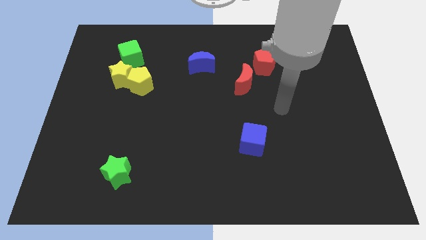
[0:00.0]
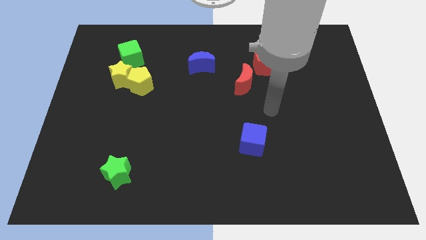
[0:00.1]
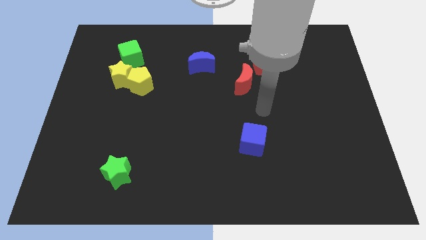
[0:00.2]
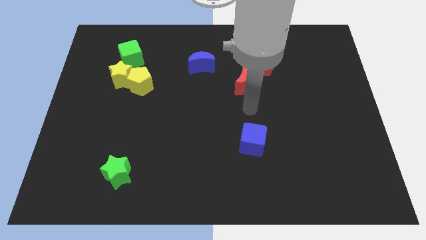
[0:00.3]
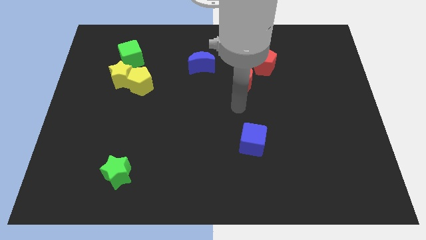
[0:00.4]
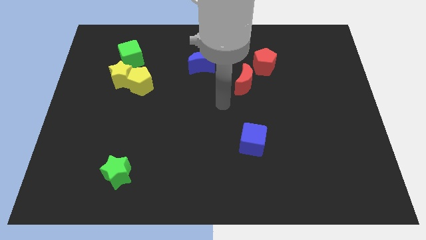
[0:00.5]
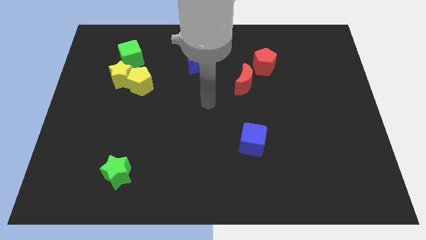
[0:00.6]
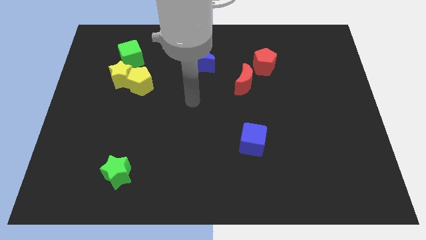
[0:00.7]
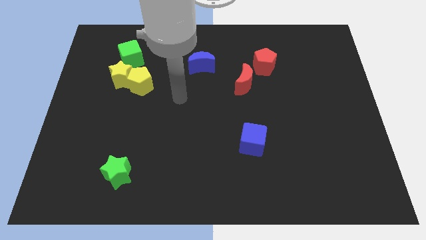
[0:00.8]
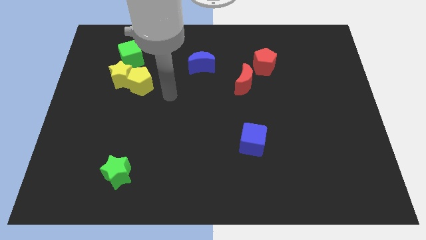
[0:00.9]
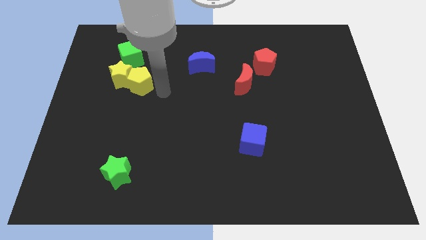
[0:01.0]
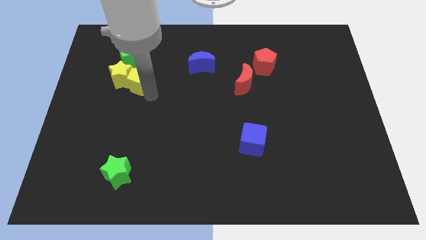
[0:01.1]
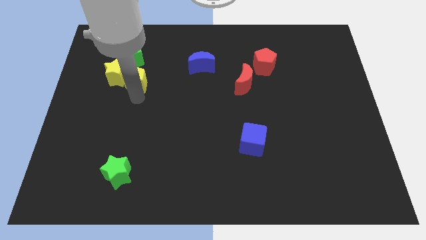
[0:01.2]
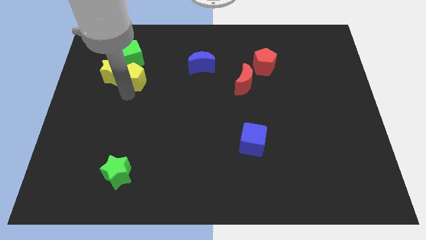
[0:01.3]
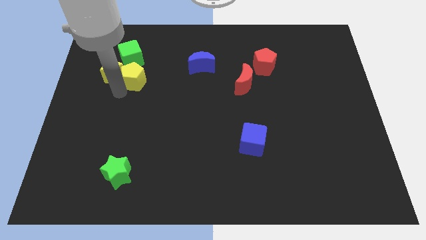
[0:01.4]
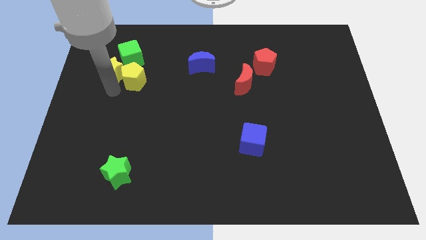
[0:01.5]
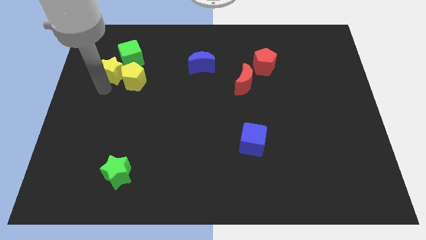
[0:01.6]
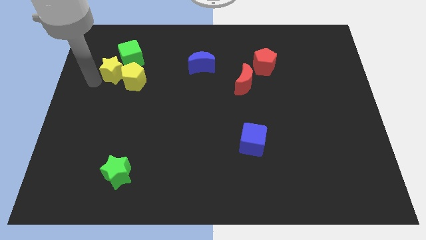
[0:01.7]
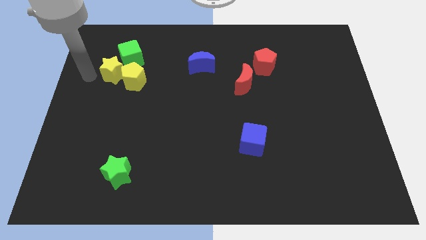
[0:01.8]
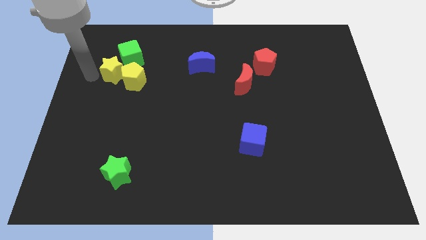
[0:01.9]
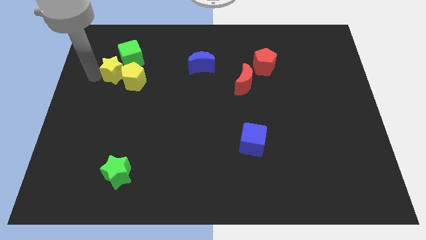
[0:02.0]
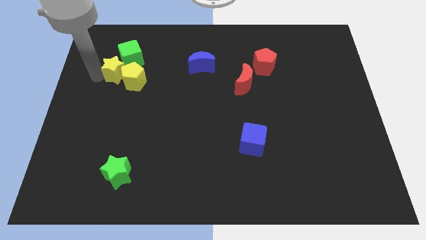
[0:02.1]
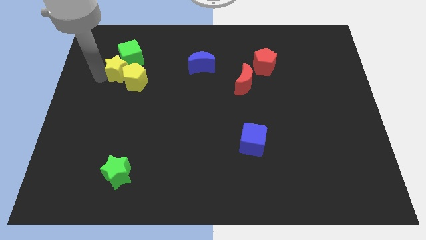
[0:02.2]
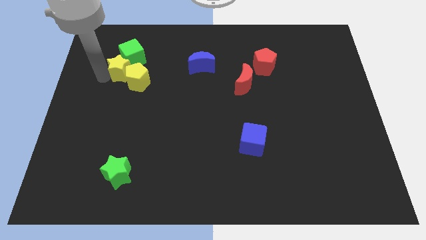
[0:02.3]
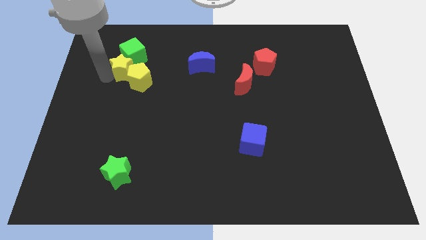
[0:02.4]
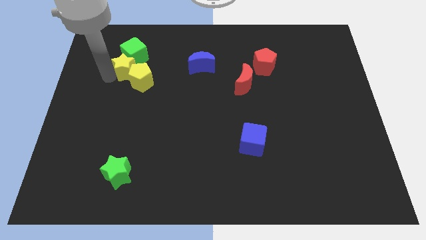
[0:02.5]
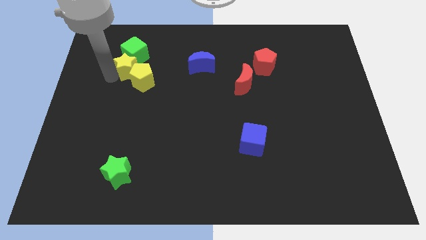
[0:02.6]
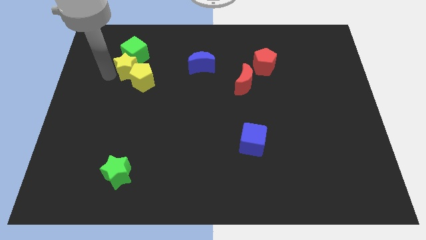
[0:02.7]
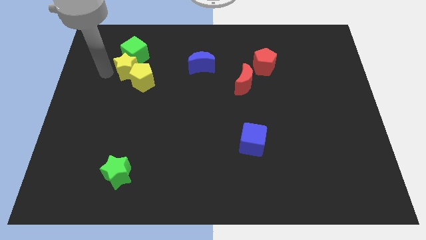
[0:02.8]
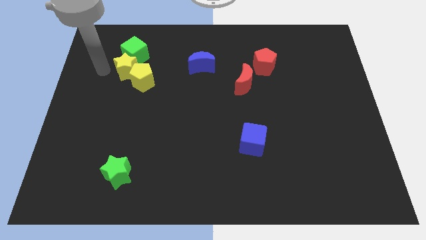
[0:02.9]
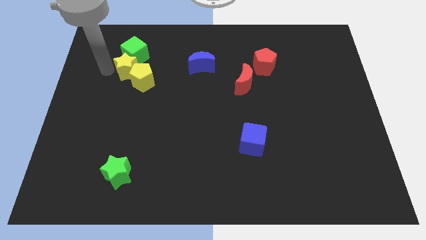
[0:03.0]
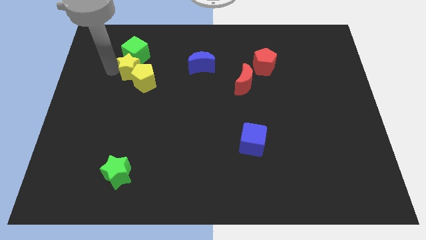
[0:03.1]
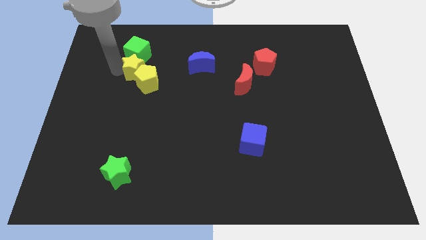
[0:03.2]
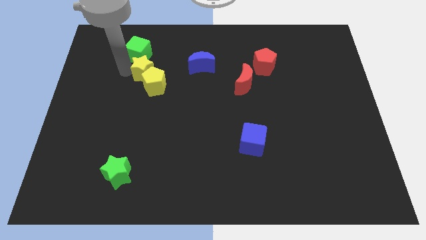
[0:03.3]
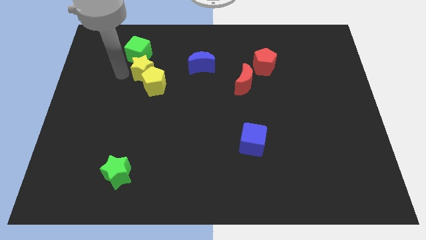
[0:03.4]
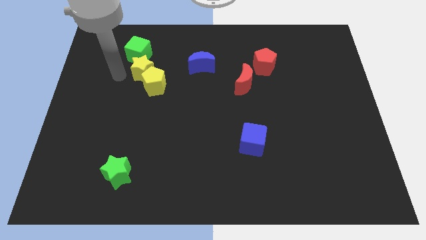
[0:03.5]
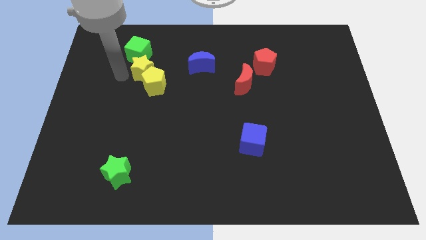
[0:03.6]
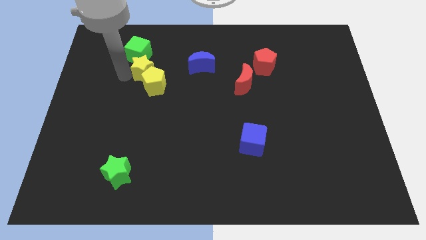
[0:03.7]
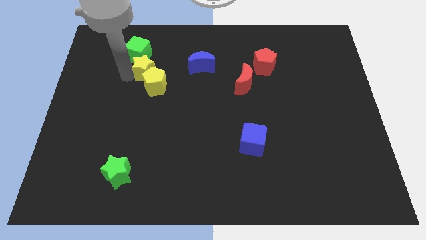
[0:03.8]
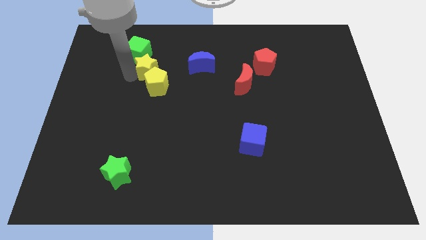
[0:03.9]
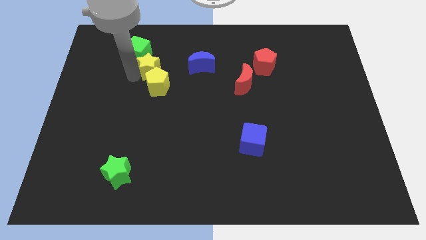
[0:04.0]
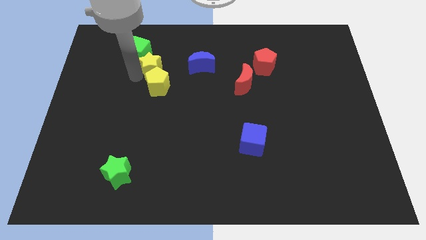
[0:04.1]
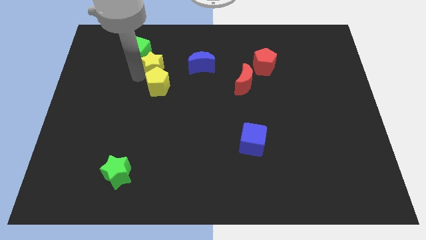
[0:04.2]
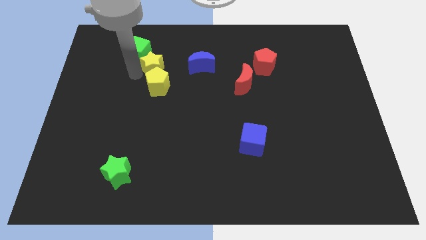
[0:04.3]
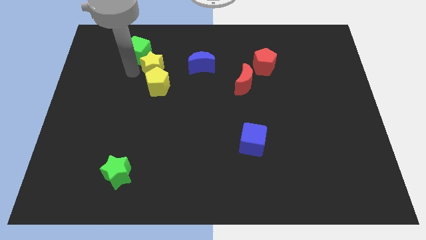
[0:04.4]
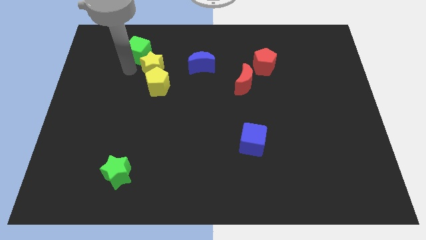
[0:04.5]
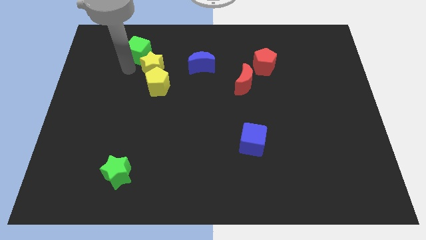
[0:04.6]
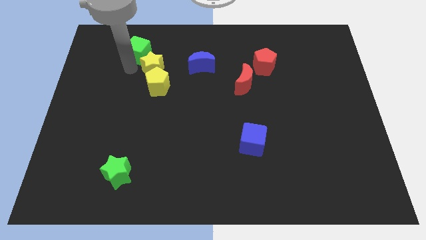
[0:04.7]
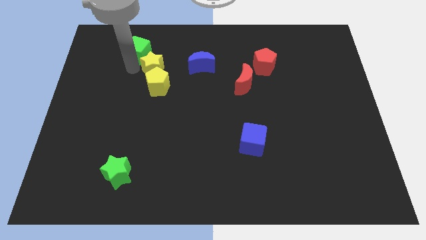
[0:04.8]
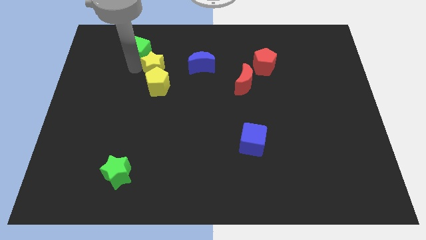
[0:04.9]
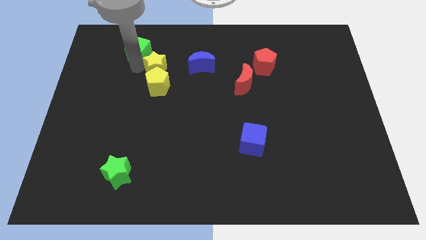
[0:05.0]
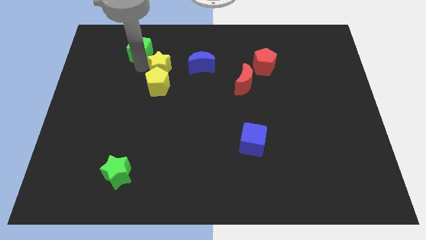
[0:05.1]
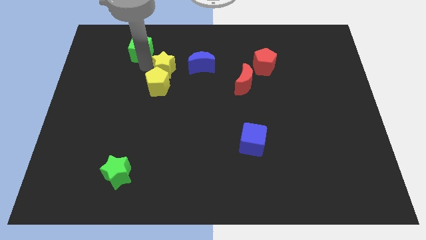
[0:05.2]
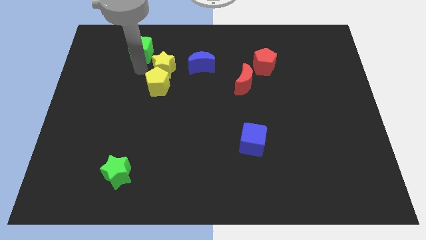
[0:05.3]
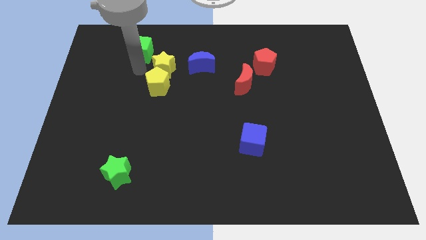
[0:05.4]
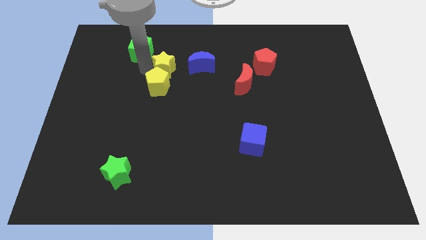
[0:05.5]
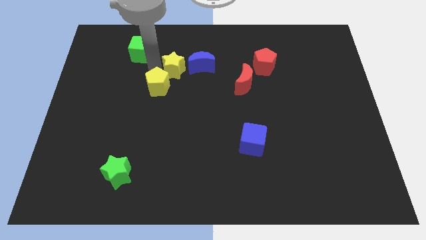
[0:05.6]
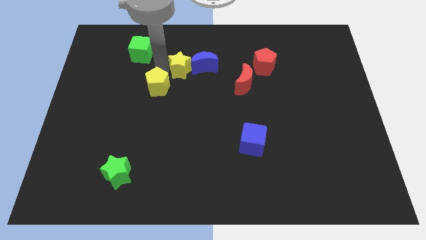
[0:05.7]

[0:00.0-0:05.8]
move the yellow star next to the blue moon

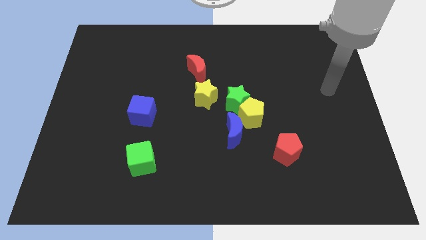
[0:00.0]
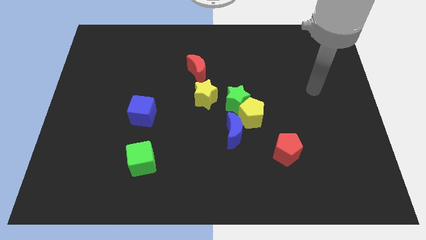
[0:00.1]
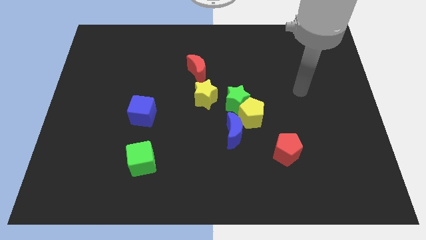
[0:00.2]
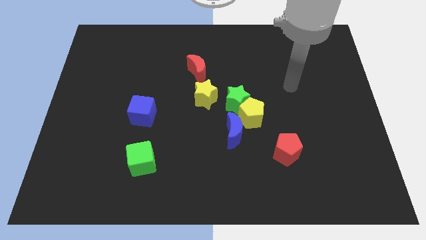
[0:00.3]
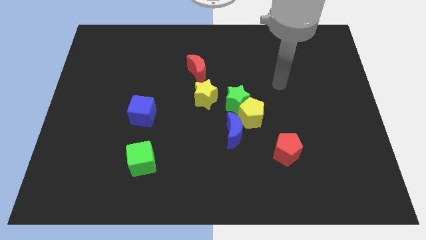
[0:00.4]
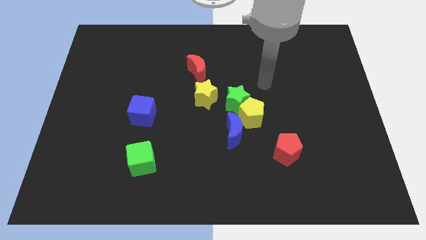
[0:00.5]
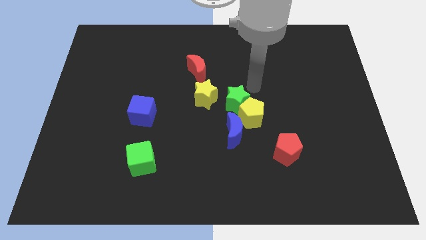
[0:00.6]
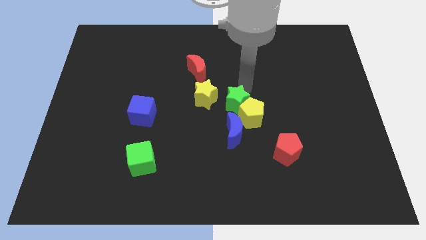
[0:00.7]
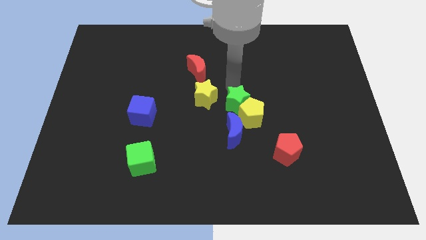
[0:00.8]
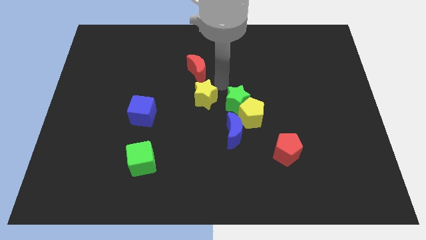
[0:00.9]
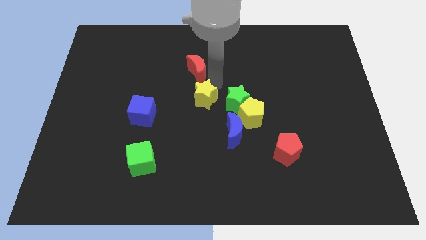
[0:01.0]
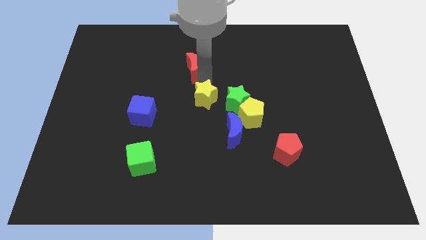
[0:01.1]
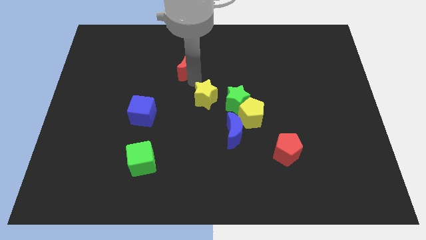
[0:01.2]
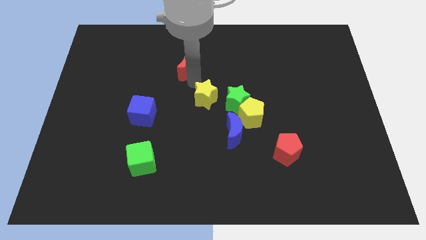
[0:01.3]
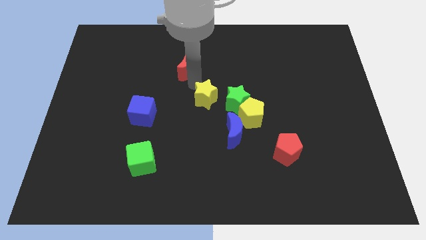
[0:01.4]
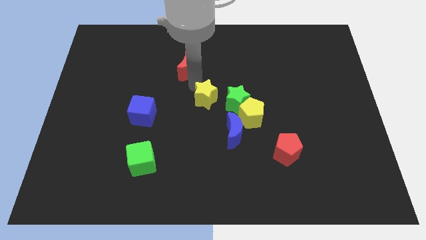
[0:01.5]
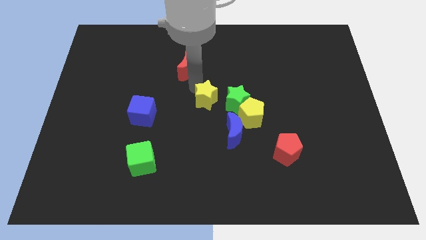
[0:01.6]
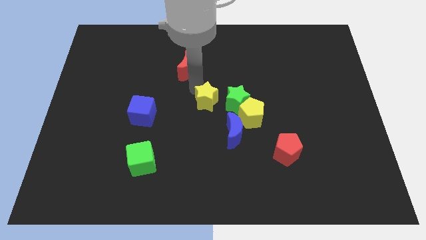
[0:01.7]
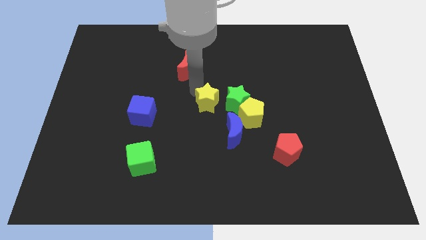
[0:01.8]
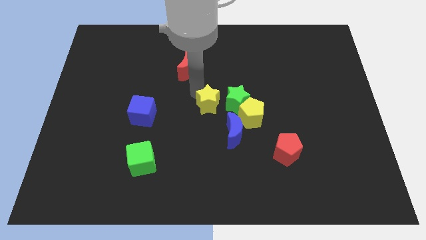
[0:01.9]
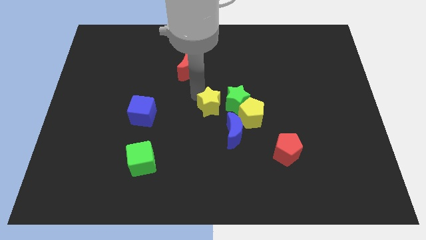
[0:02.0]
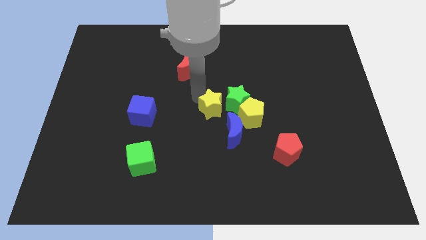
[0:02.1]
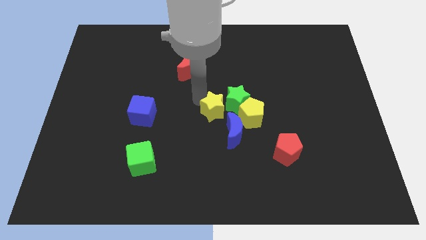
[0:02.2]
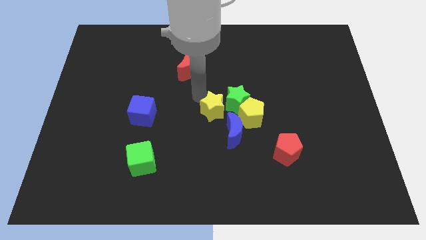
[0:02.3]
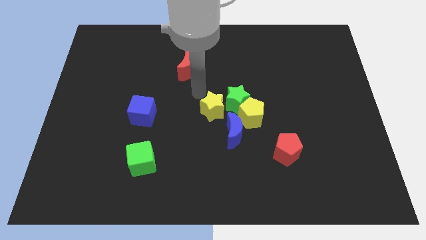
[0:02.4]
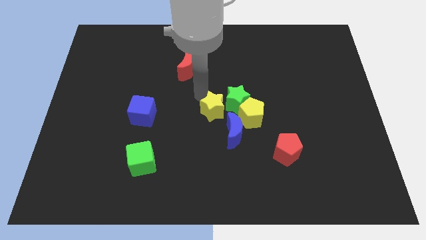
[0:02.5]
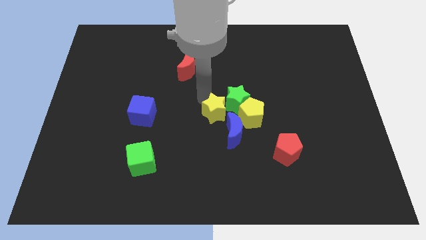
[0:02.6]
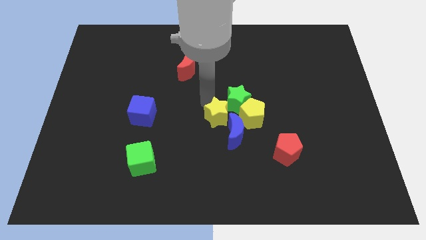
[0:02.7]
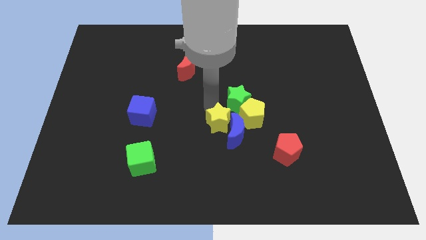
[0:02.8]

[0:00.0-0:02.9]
put the yellow star towards the blue moon
